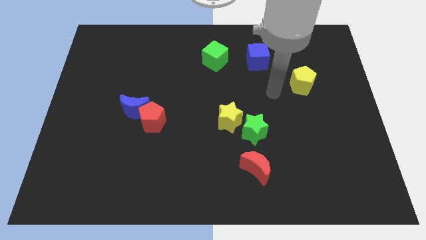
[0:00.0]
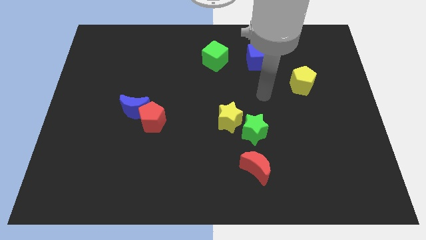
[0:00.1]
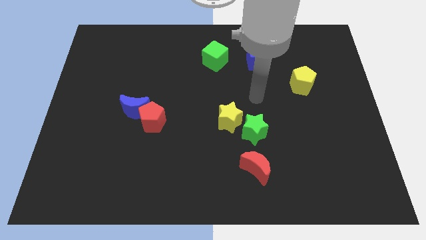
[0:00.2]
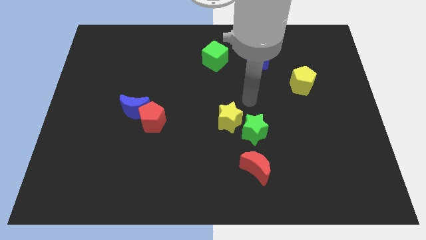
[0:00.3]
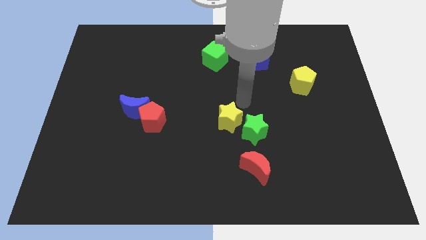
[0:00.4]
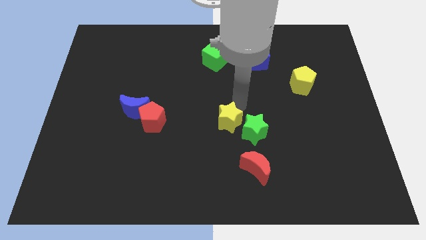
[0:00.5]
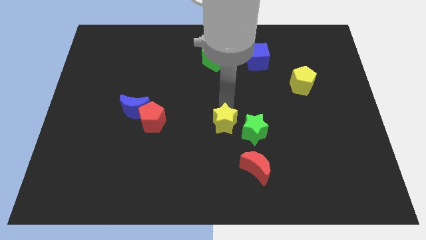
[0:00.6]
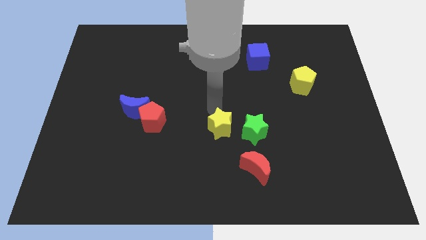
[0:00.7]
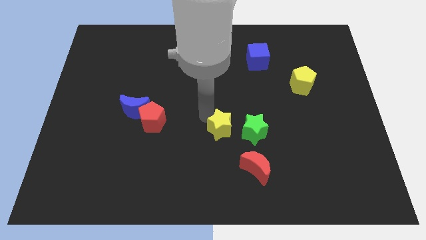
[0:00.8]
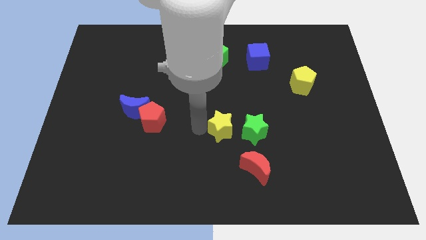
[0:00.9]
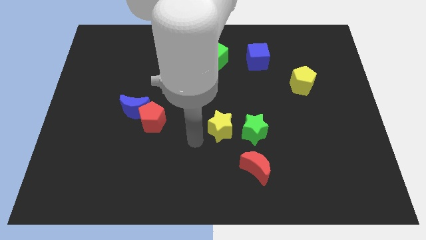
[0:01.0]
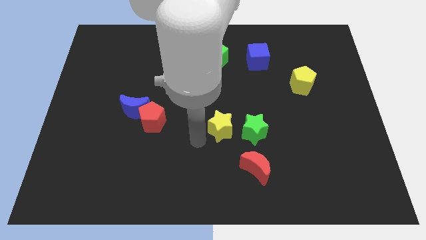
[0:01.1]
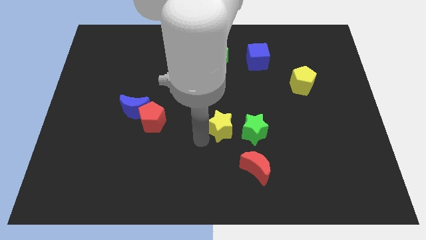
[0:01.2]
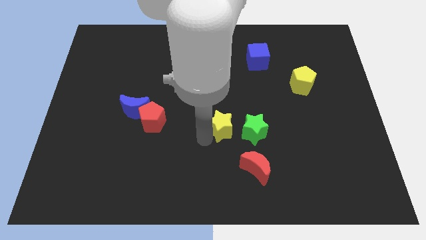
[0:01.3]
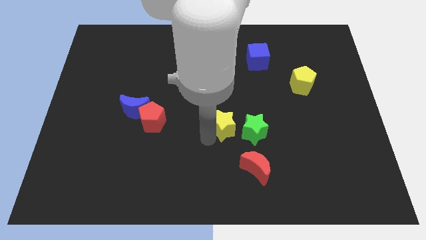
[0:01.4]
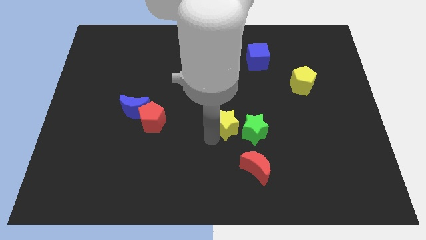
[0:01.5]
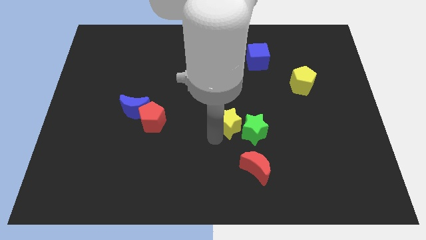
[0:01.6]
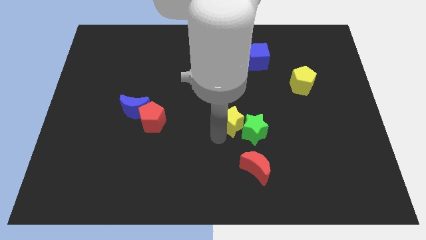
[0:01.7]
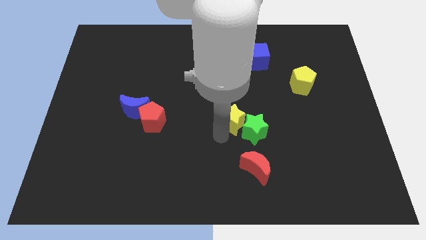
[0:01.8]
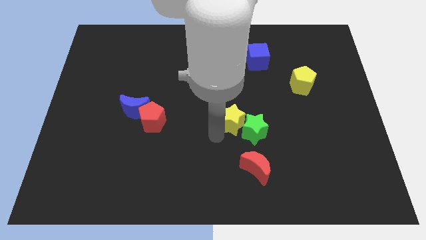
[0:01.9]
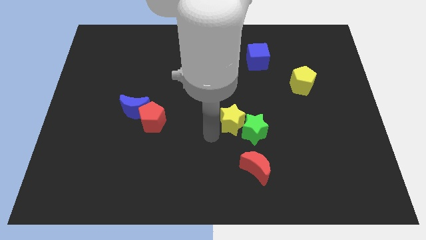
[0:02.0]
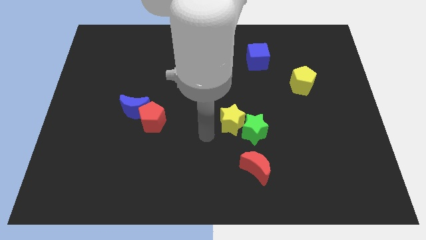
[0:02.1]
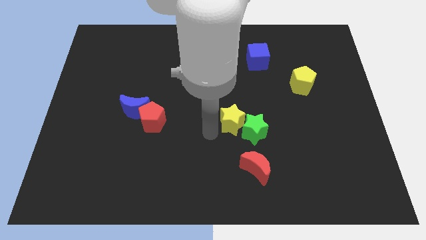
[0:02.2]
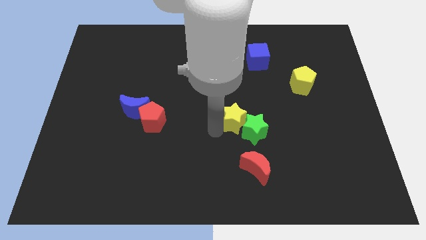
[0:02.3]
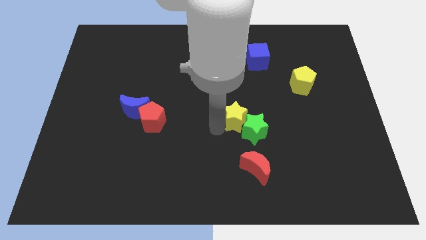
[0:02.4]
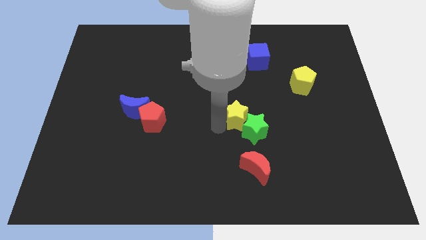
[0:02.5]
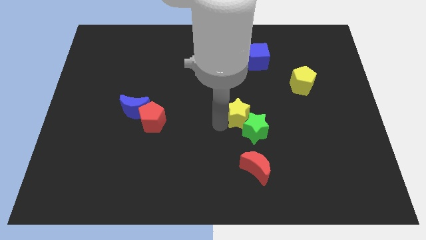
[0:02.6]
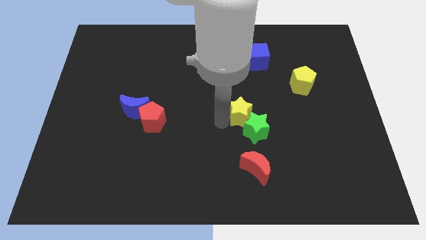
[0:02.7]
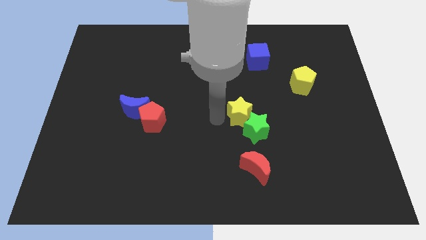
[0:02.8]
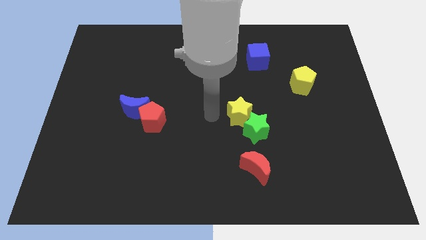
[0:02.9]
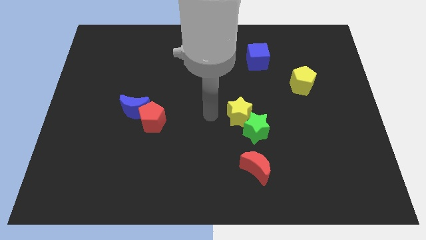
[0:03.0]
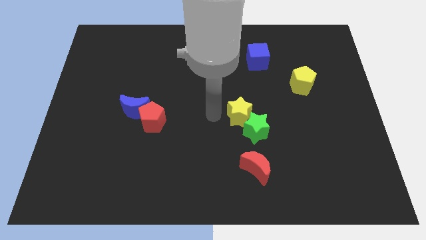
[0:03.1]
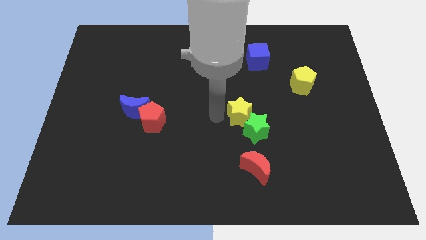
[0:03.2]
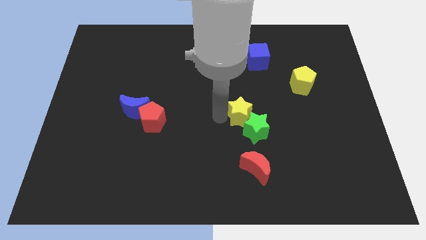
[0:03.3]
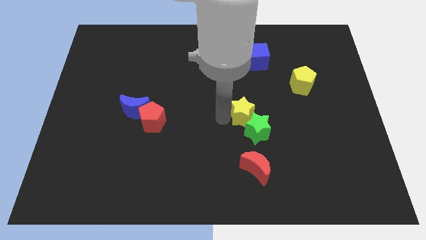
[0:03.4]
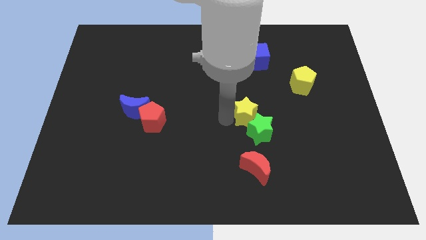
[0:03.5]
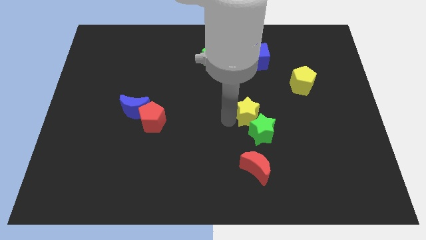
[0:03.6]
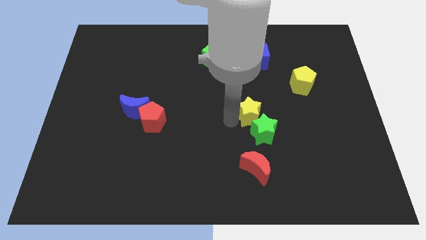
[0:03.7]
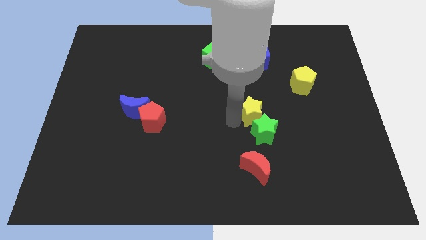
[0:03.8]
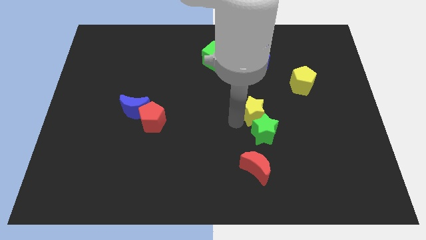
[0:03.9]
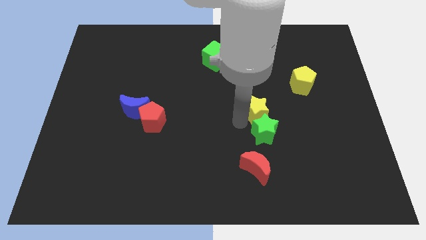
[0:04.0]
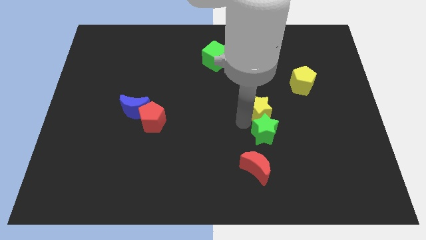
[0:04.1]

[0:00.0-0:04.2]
move the yellow star right a little bit

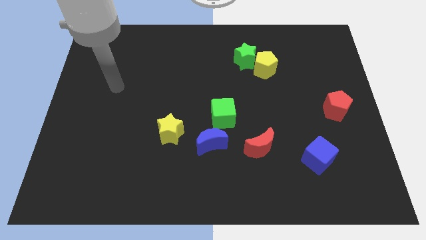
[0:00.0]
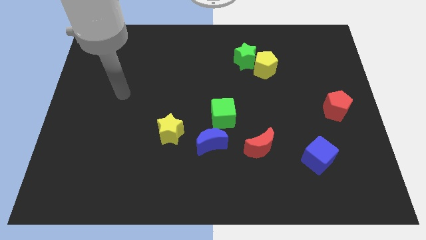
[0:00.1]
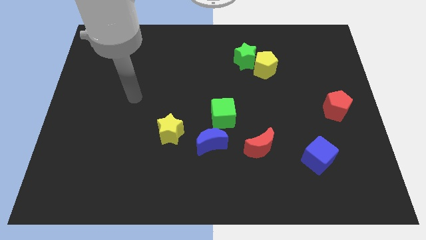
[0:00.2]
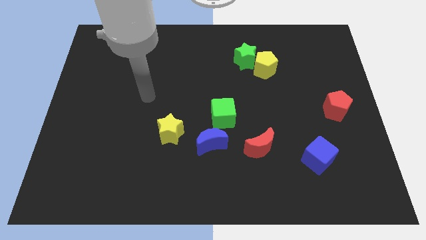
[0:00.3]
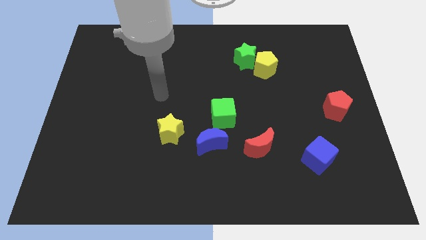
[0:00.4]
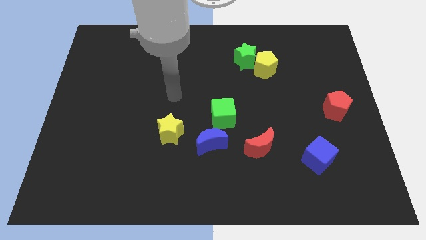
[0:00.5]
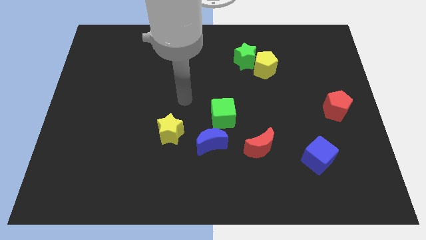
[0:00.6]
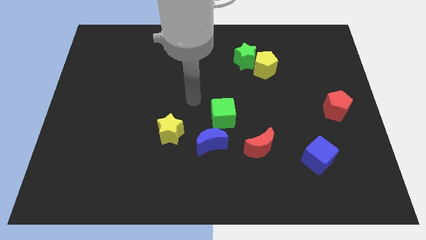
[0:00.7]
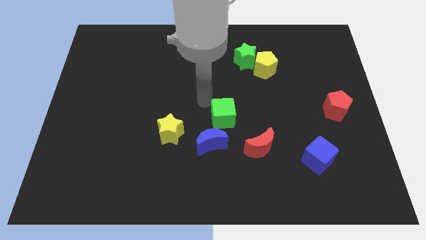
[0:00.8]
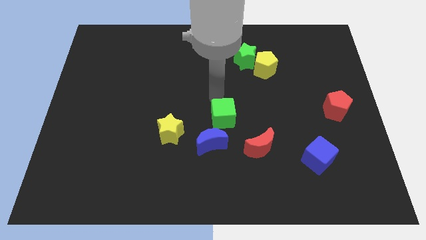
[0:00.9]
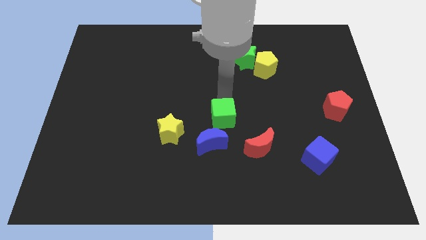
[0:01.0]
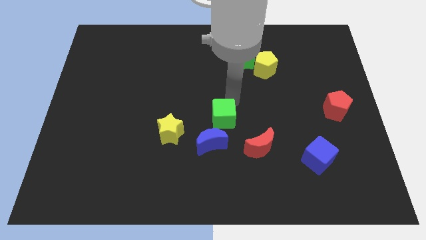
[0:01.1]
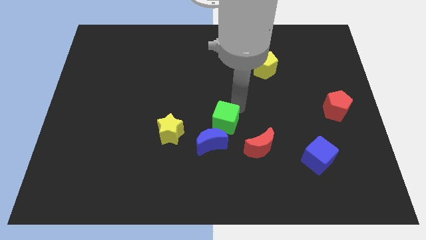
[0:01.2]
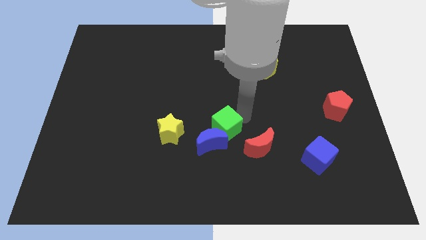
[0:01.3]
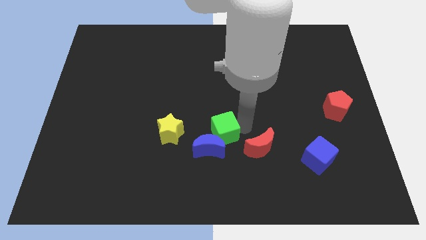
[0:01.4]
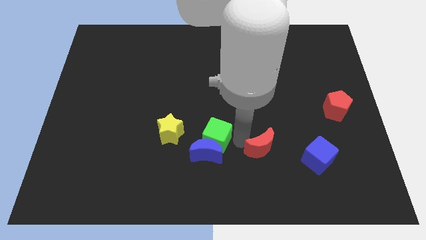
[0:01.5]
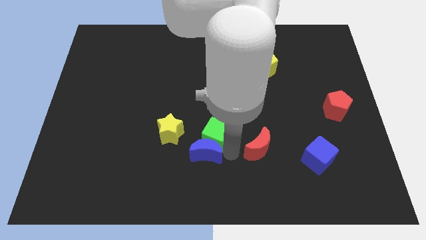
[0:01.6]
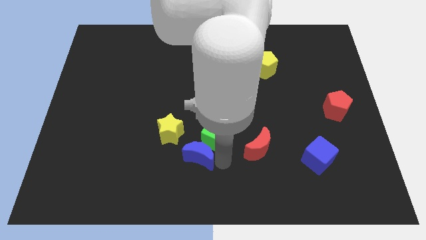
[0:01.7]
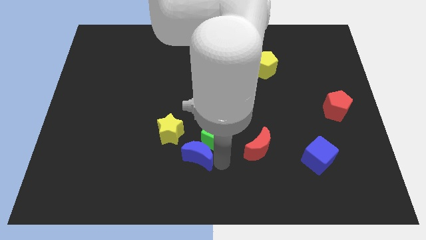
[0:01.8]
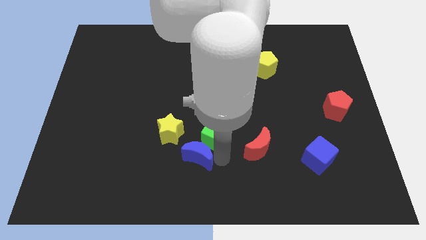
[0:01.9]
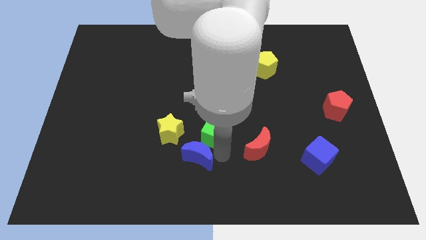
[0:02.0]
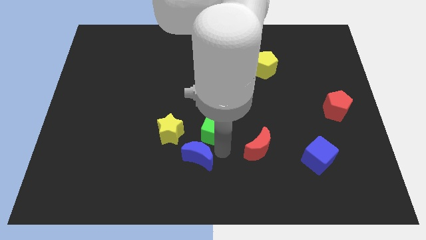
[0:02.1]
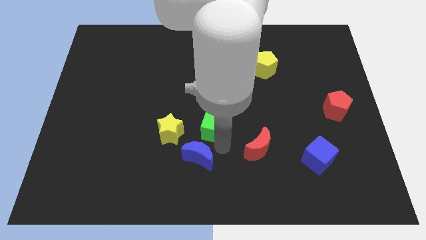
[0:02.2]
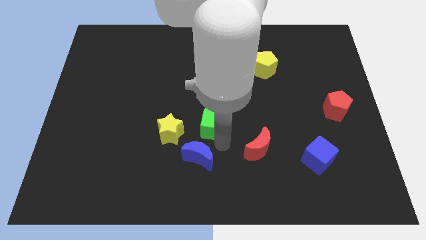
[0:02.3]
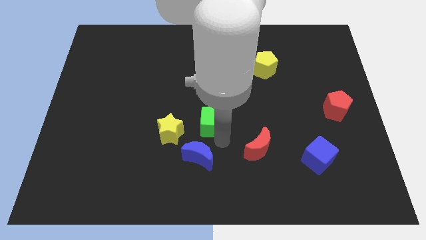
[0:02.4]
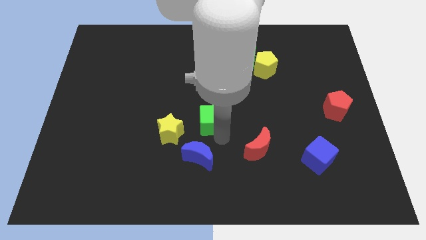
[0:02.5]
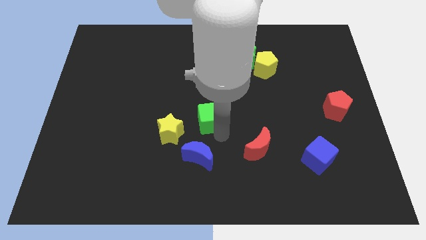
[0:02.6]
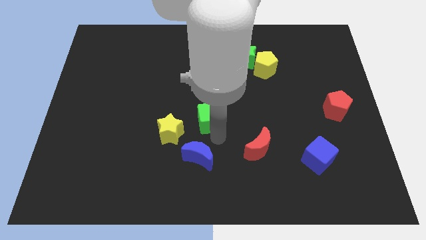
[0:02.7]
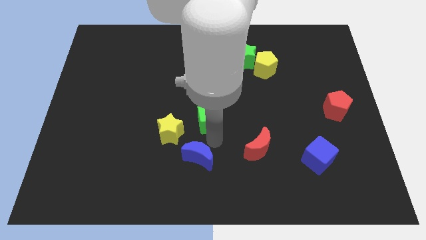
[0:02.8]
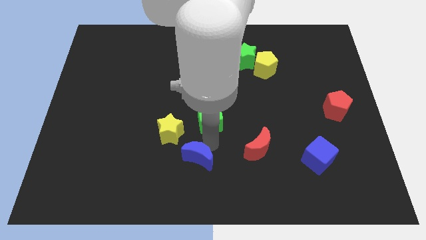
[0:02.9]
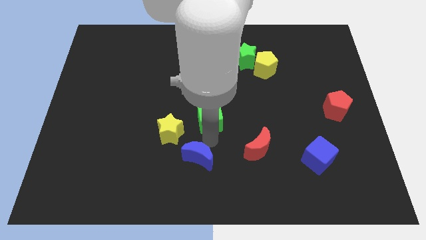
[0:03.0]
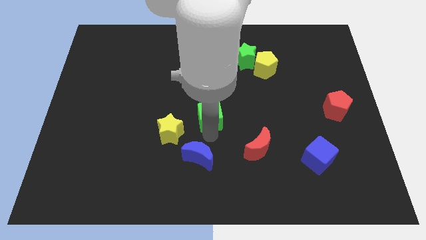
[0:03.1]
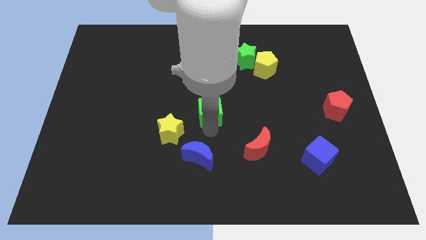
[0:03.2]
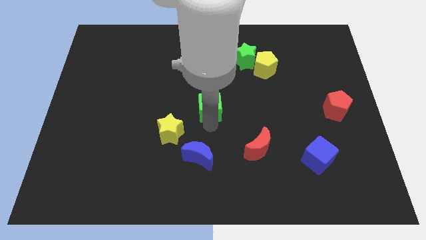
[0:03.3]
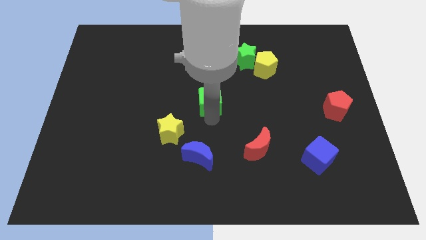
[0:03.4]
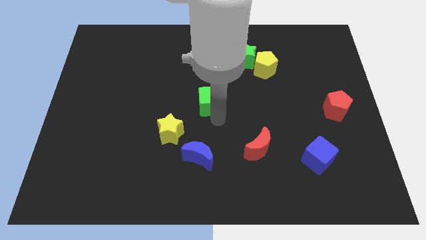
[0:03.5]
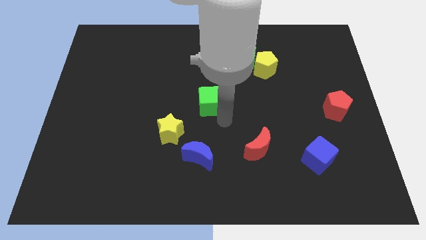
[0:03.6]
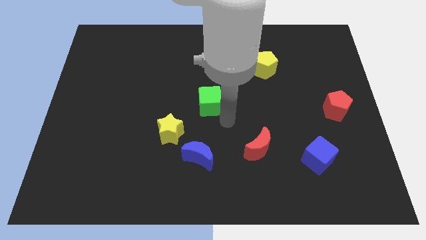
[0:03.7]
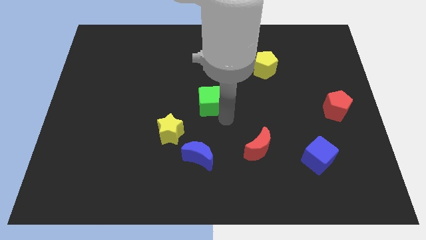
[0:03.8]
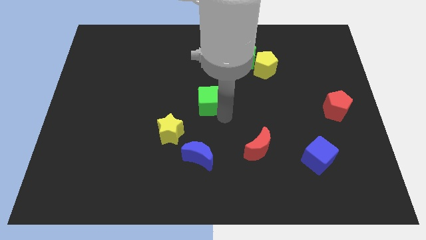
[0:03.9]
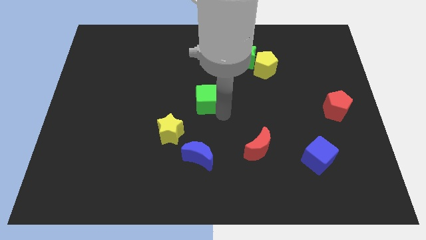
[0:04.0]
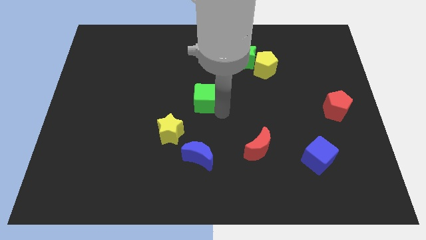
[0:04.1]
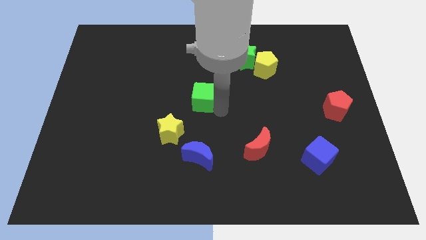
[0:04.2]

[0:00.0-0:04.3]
slightly push the green cube up and then left
